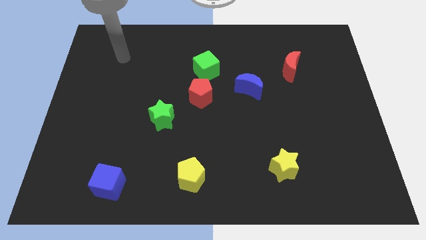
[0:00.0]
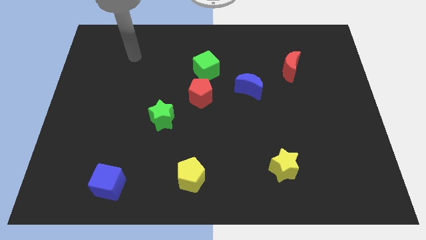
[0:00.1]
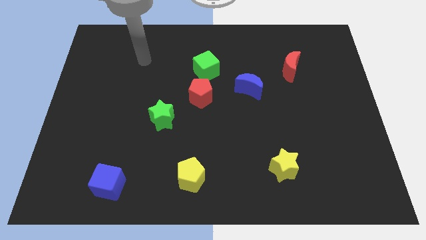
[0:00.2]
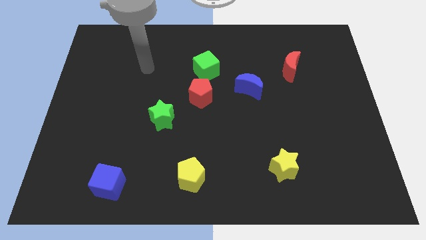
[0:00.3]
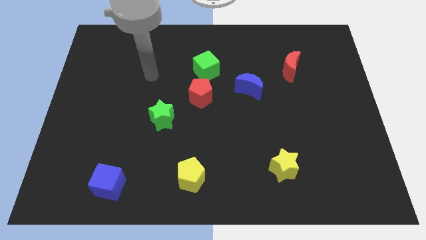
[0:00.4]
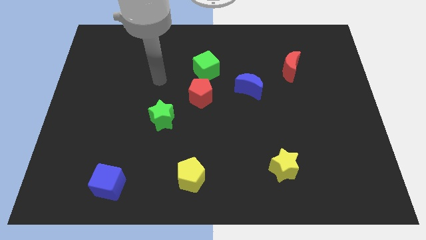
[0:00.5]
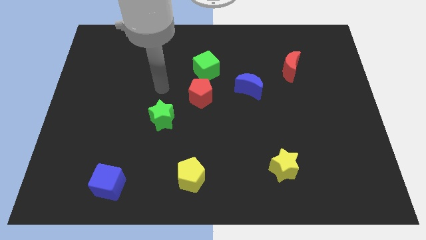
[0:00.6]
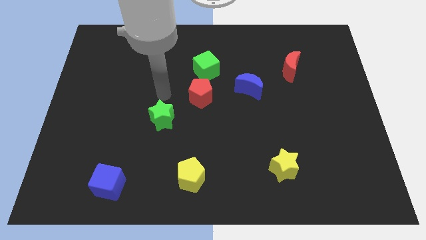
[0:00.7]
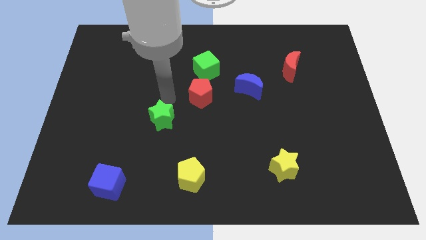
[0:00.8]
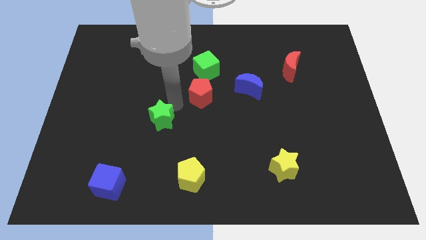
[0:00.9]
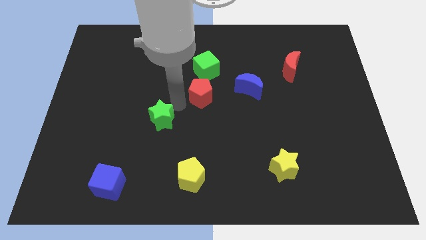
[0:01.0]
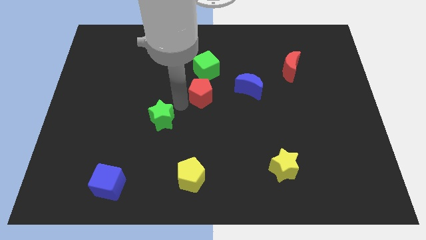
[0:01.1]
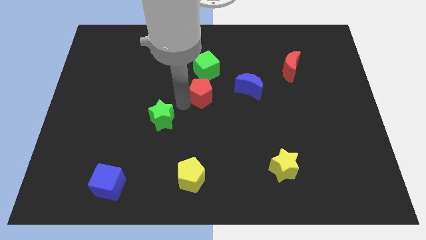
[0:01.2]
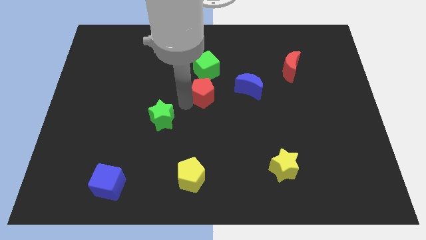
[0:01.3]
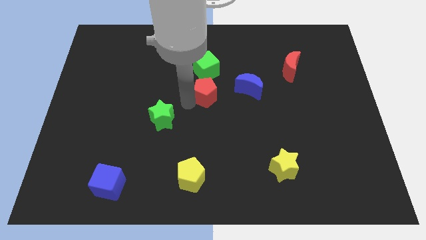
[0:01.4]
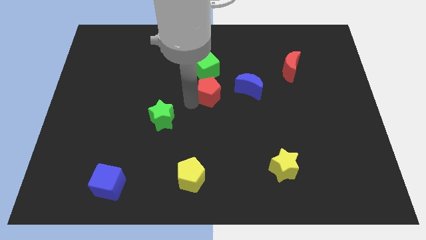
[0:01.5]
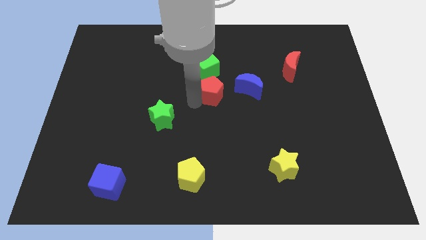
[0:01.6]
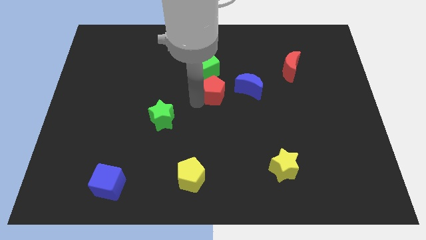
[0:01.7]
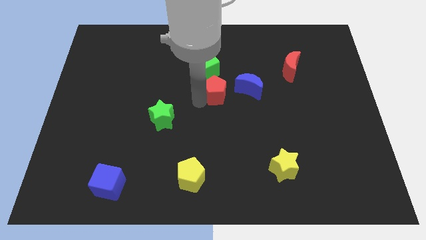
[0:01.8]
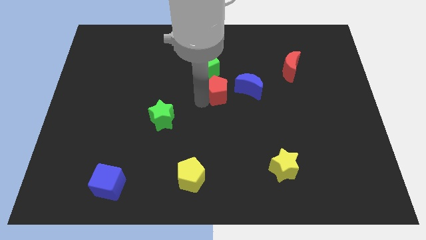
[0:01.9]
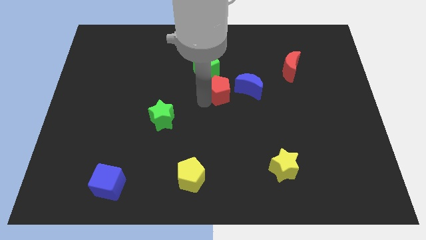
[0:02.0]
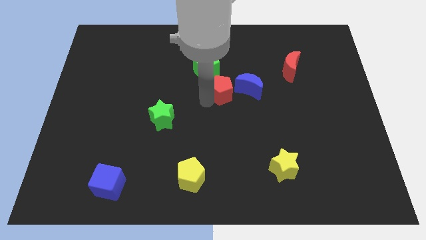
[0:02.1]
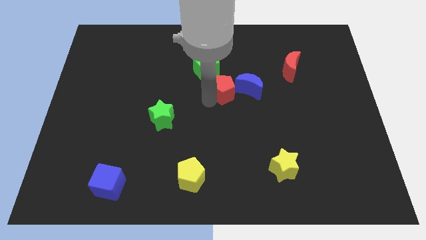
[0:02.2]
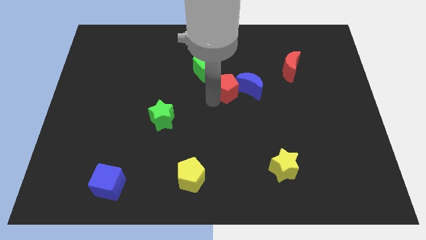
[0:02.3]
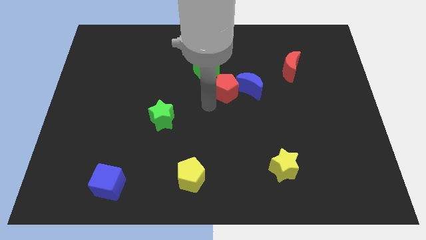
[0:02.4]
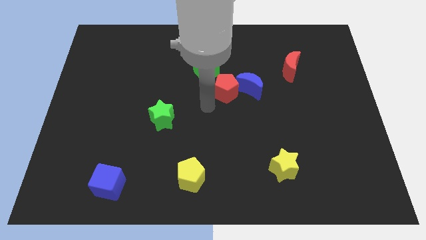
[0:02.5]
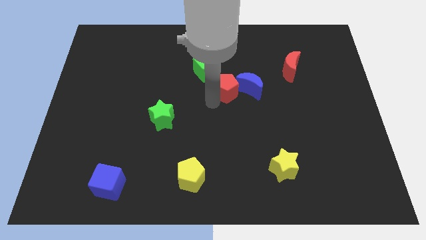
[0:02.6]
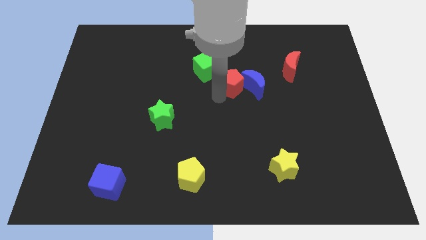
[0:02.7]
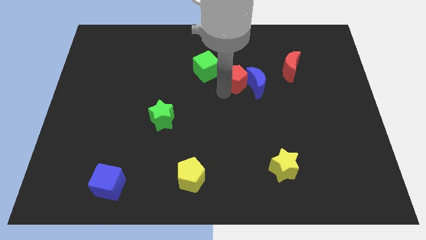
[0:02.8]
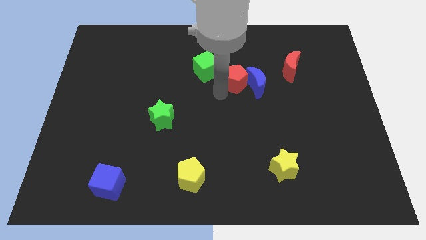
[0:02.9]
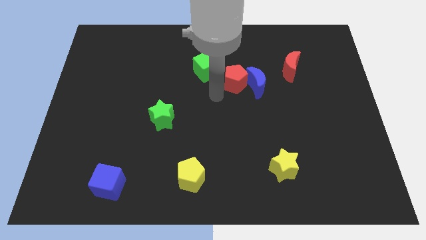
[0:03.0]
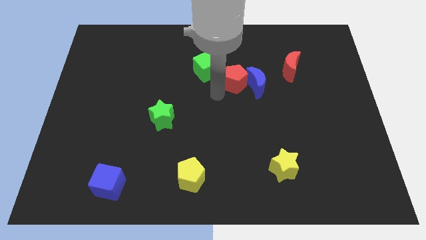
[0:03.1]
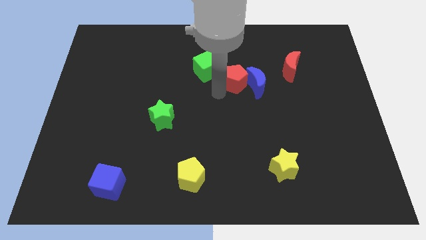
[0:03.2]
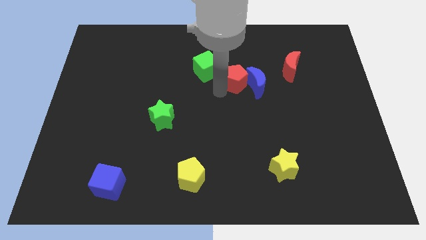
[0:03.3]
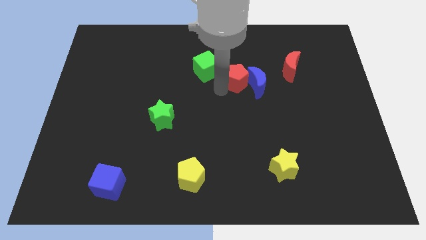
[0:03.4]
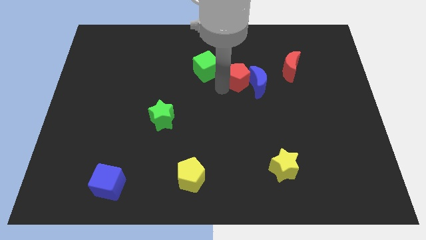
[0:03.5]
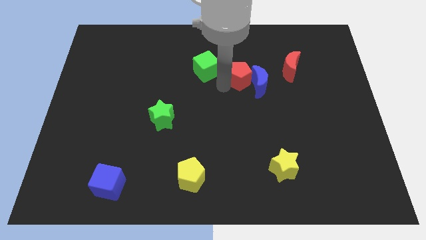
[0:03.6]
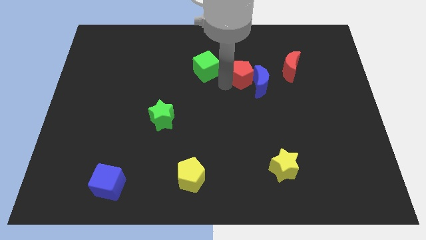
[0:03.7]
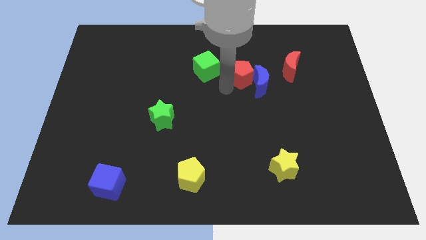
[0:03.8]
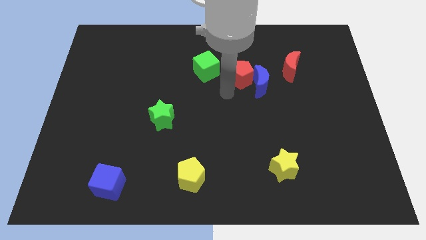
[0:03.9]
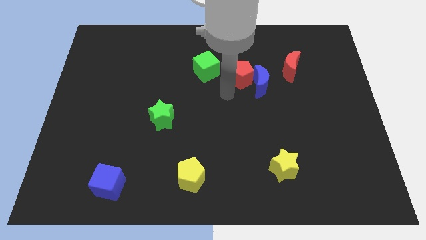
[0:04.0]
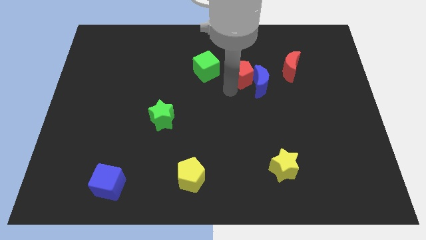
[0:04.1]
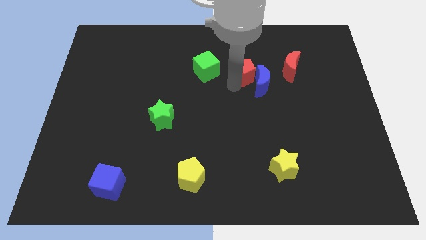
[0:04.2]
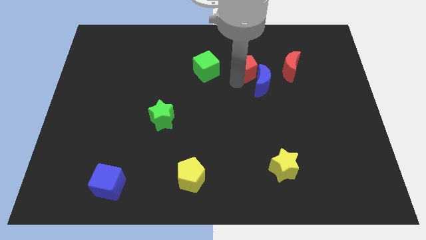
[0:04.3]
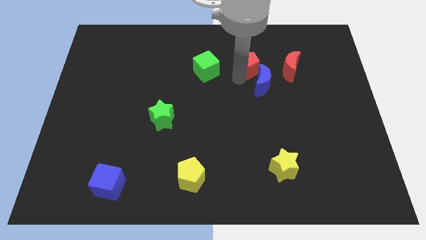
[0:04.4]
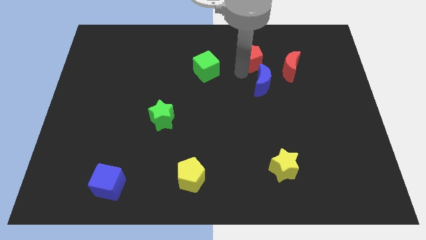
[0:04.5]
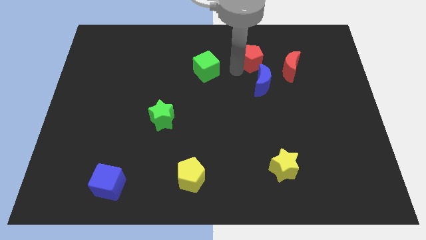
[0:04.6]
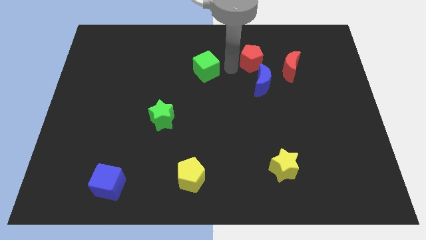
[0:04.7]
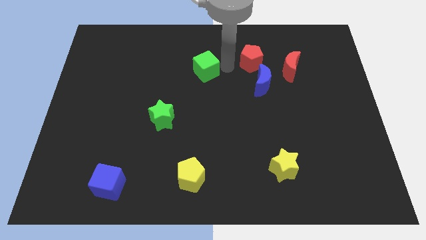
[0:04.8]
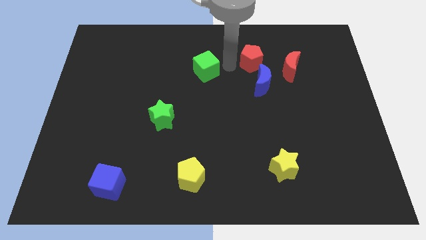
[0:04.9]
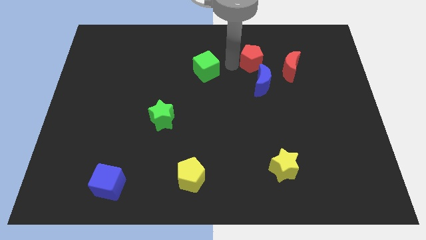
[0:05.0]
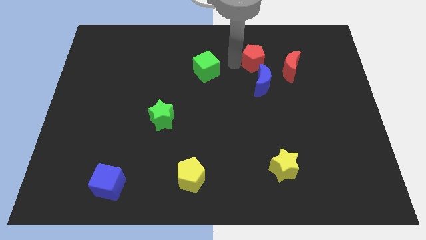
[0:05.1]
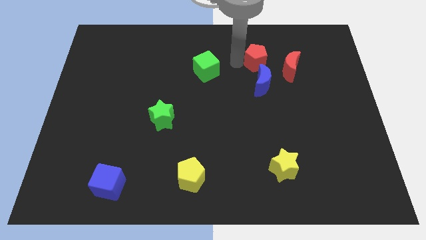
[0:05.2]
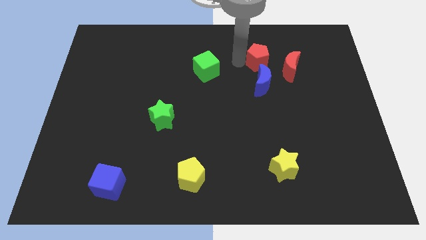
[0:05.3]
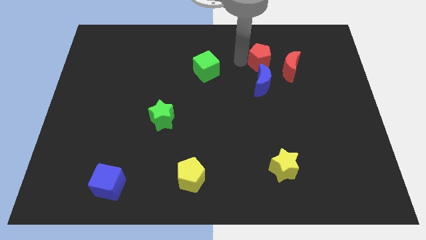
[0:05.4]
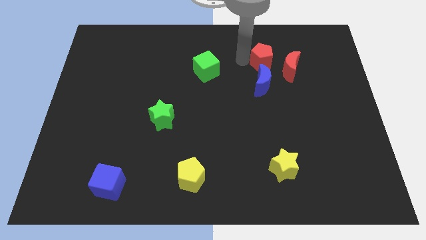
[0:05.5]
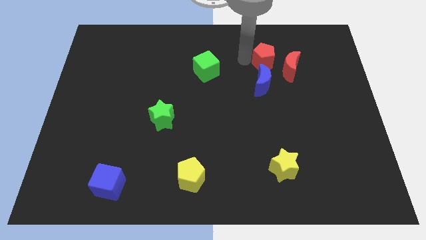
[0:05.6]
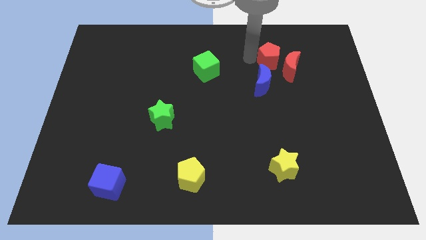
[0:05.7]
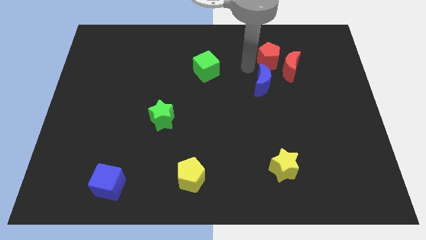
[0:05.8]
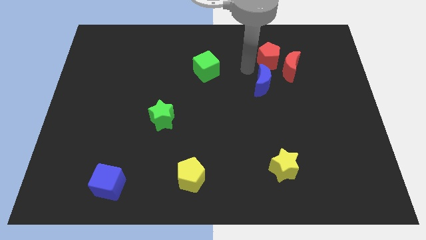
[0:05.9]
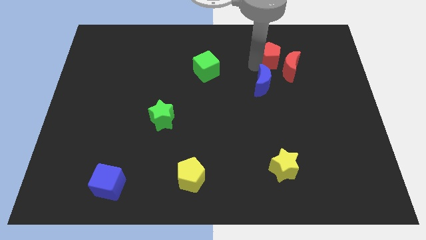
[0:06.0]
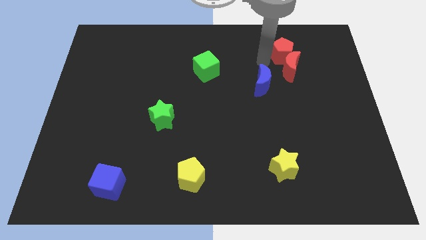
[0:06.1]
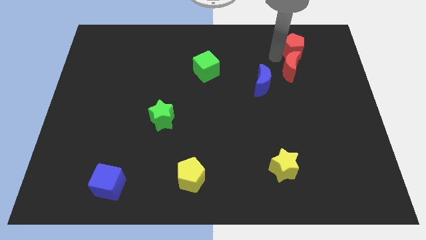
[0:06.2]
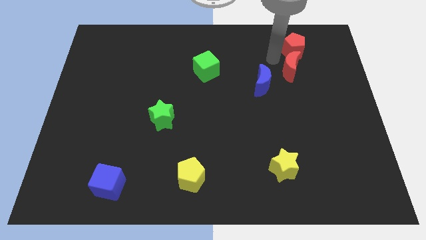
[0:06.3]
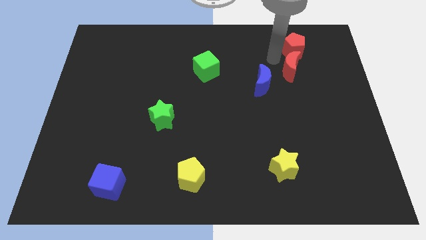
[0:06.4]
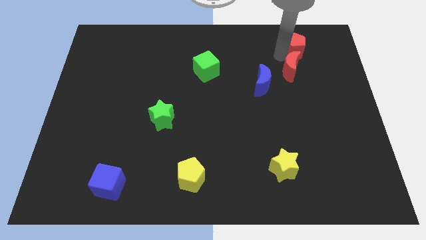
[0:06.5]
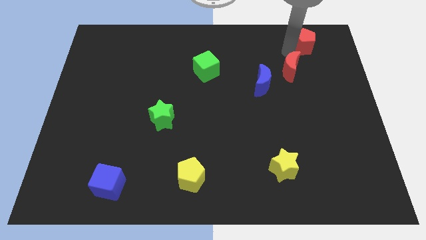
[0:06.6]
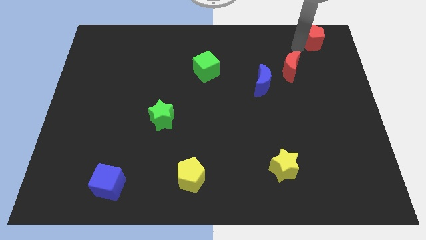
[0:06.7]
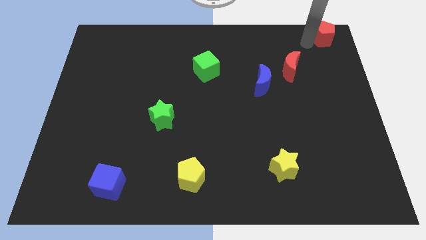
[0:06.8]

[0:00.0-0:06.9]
push the red pentagon to the top right corner
